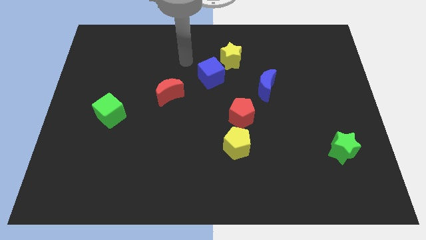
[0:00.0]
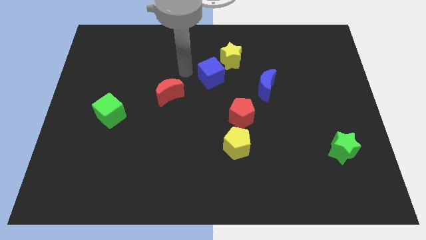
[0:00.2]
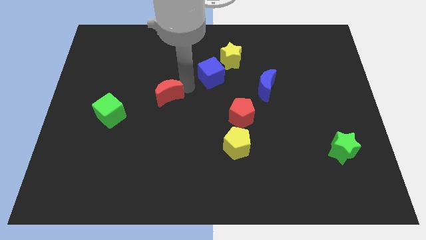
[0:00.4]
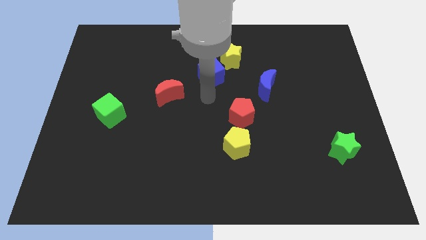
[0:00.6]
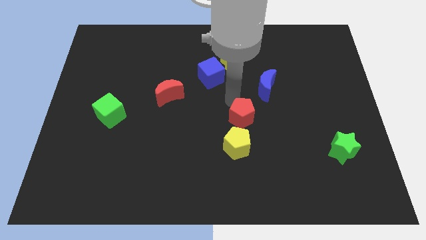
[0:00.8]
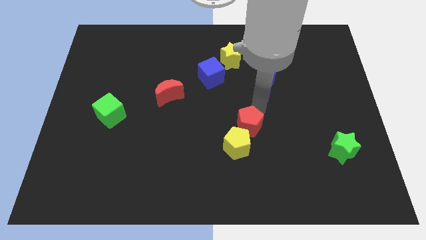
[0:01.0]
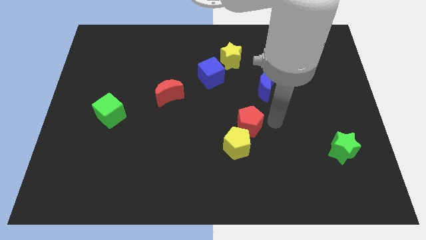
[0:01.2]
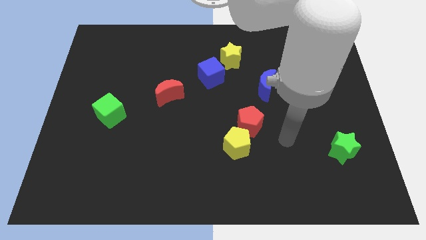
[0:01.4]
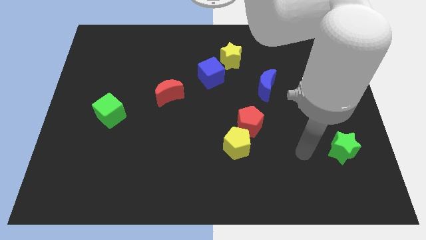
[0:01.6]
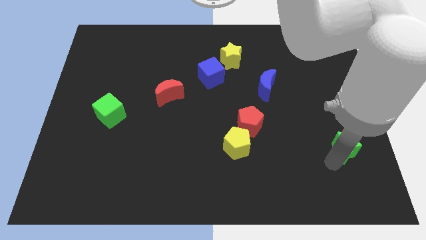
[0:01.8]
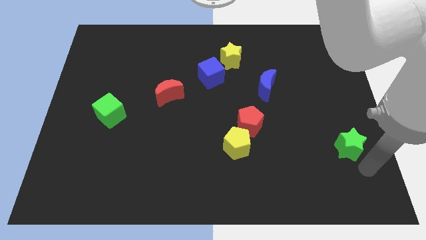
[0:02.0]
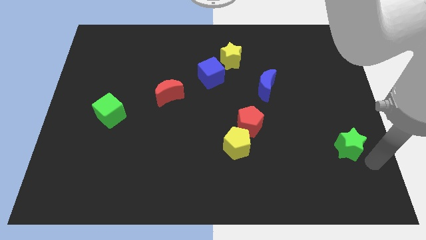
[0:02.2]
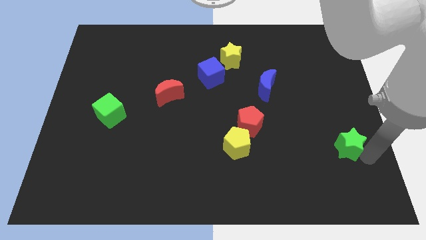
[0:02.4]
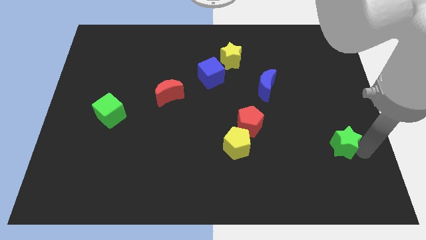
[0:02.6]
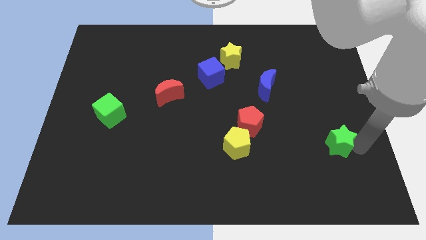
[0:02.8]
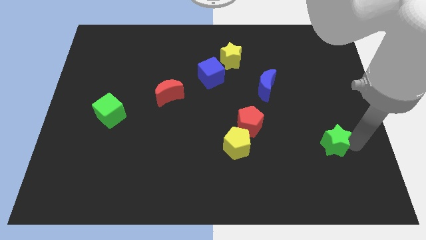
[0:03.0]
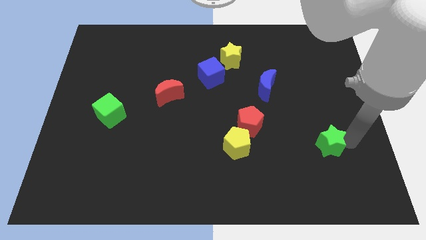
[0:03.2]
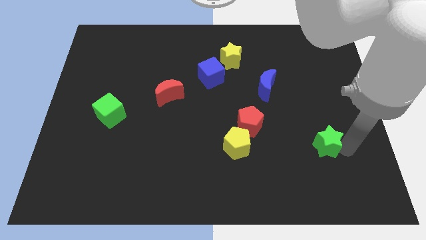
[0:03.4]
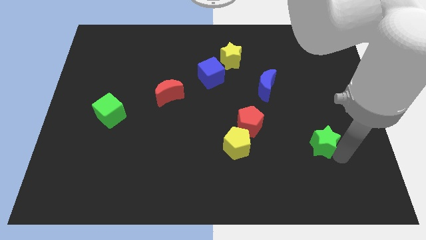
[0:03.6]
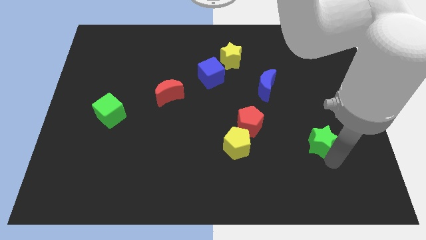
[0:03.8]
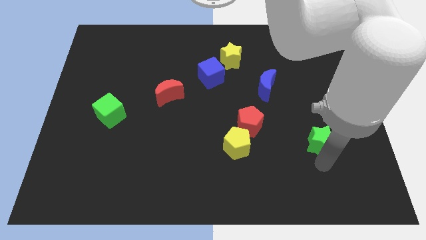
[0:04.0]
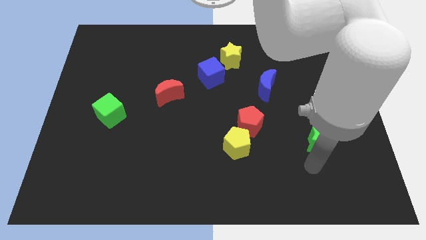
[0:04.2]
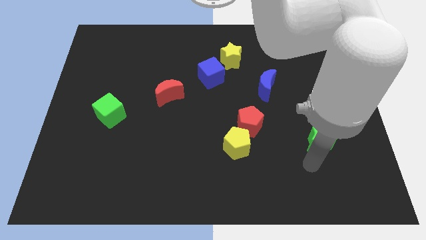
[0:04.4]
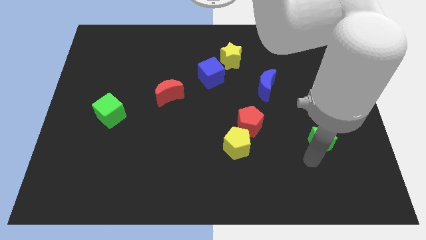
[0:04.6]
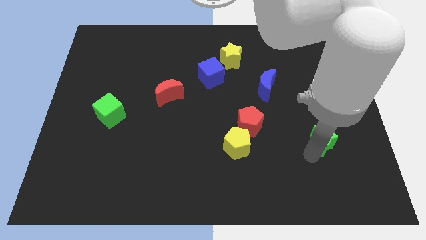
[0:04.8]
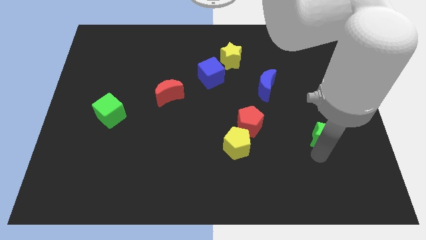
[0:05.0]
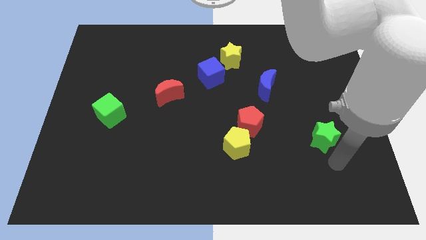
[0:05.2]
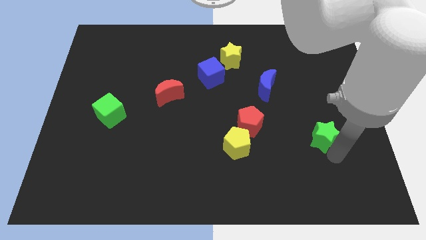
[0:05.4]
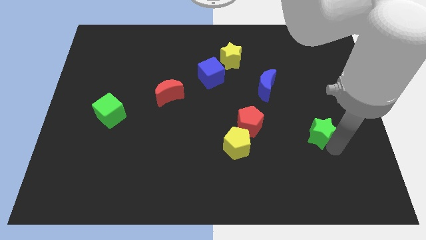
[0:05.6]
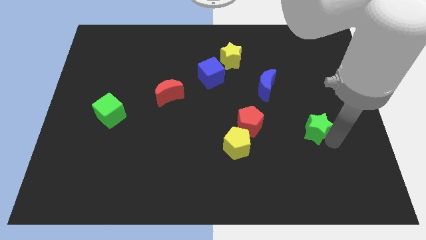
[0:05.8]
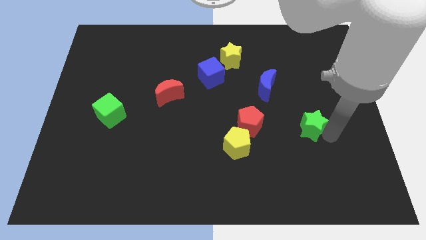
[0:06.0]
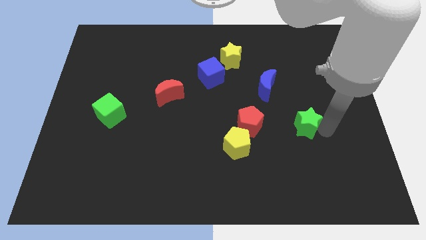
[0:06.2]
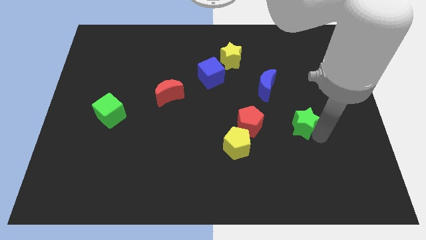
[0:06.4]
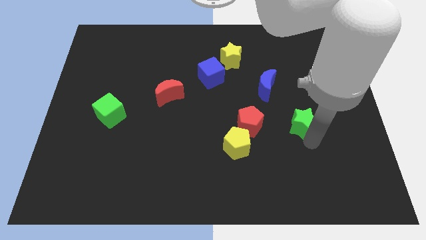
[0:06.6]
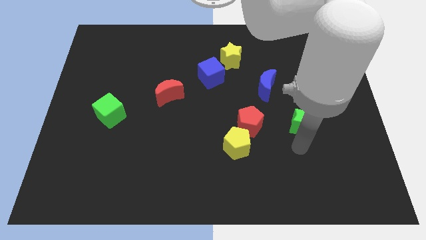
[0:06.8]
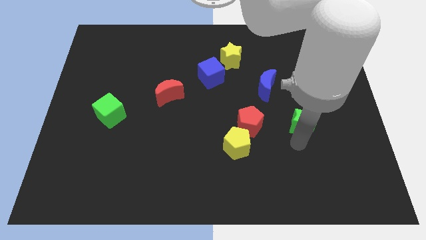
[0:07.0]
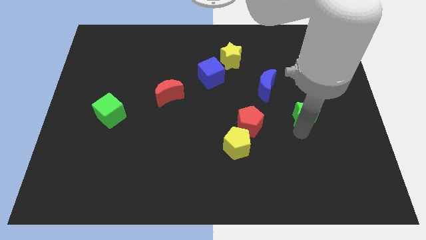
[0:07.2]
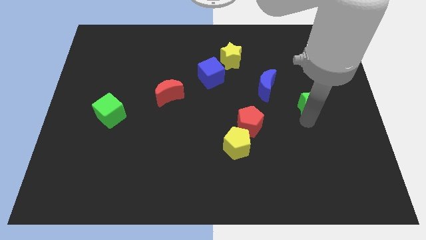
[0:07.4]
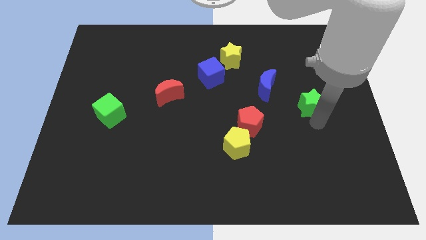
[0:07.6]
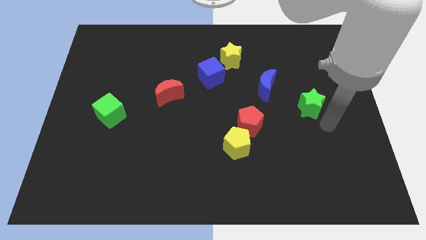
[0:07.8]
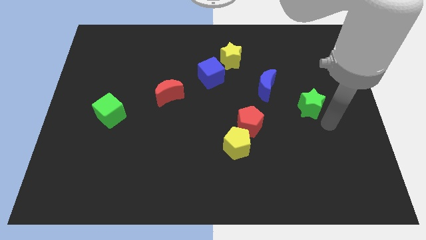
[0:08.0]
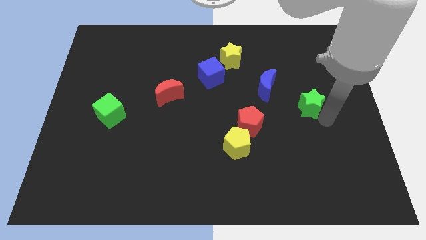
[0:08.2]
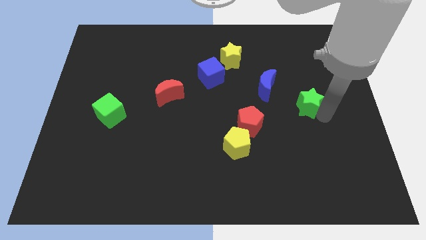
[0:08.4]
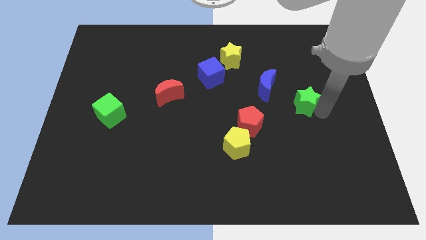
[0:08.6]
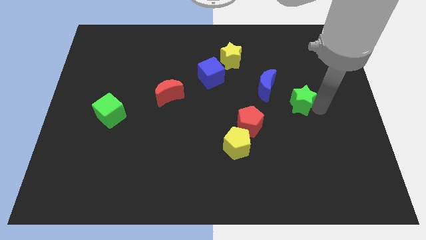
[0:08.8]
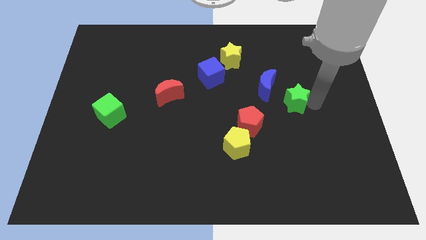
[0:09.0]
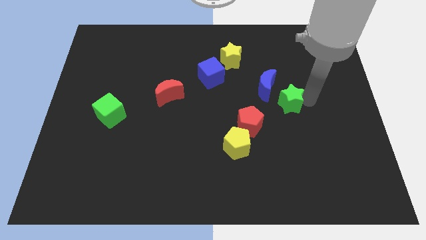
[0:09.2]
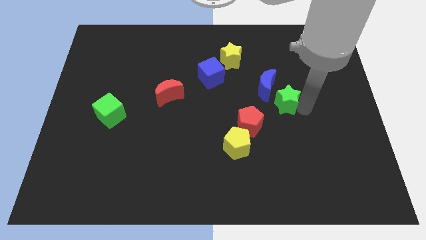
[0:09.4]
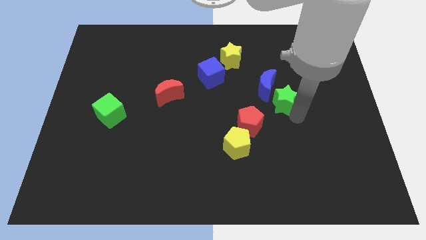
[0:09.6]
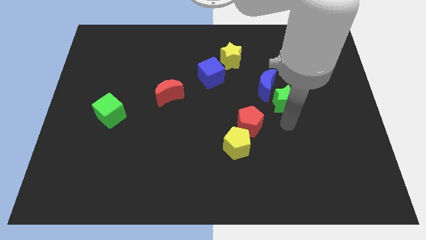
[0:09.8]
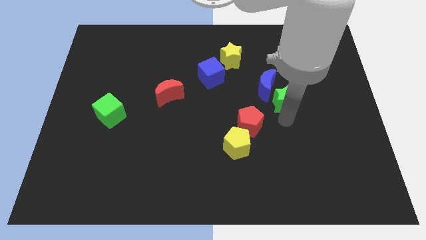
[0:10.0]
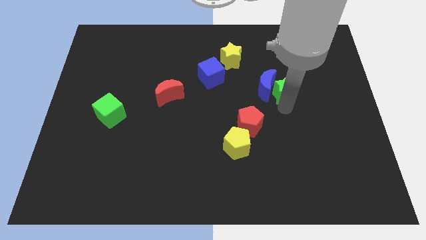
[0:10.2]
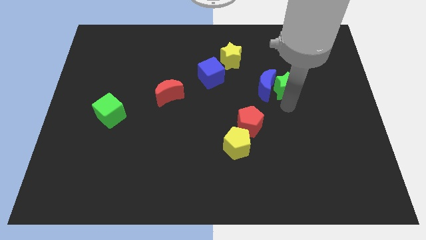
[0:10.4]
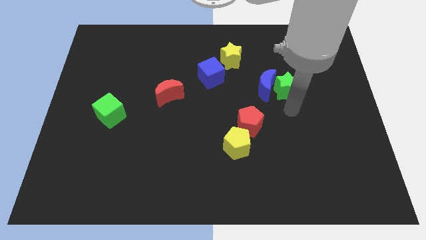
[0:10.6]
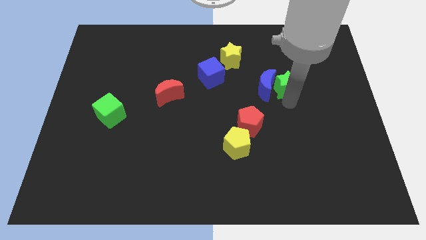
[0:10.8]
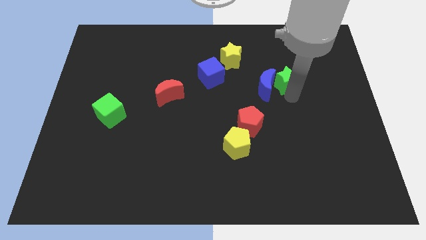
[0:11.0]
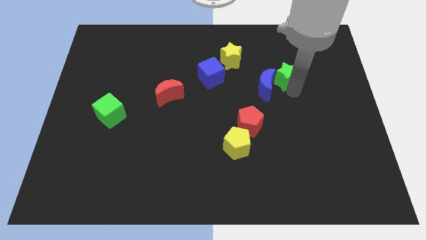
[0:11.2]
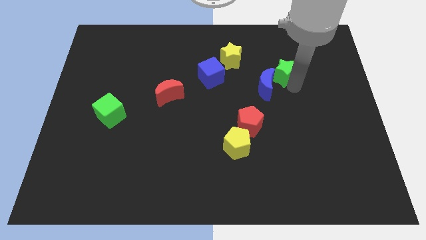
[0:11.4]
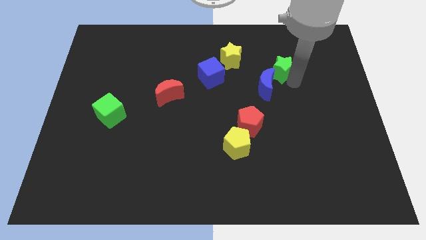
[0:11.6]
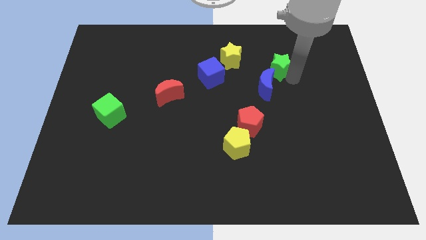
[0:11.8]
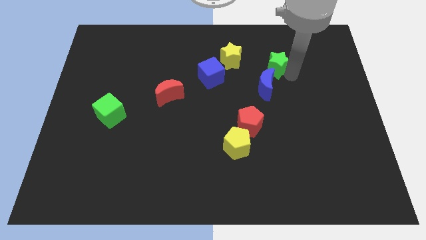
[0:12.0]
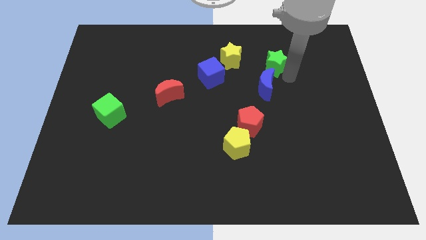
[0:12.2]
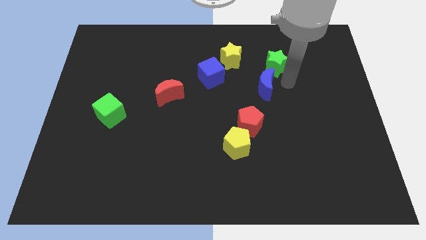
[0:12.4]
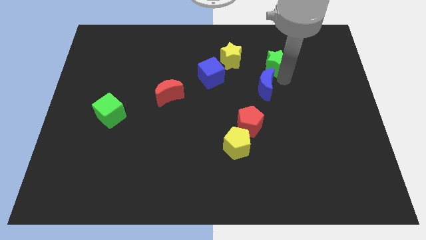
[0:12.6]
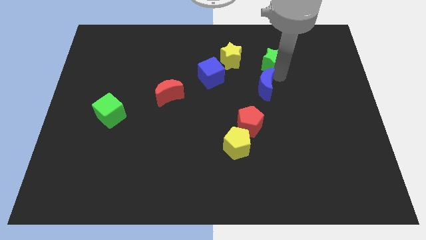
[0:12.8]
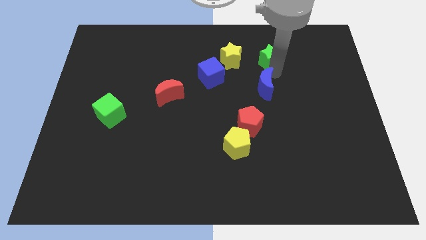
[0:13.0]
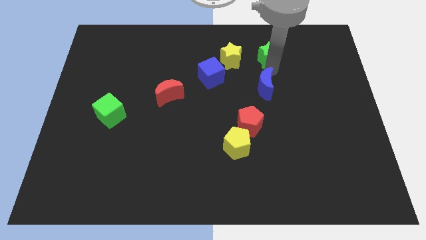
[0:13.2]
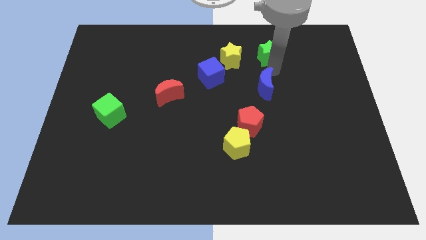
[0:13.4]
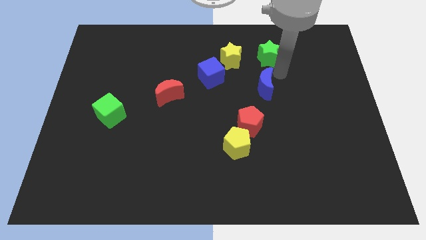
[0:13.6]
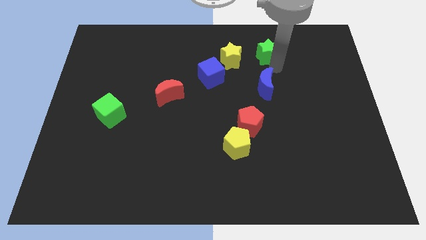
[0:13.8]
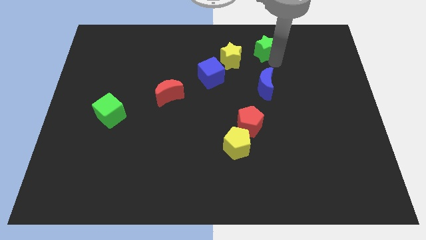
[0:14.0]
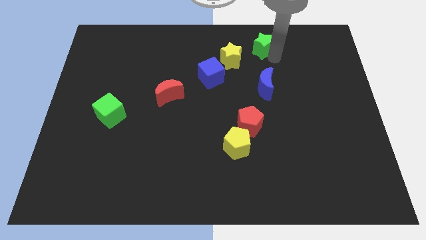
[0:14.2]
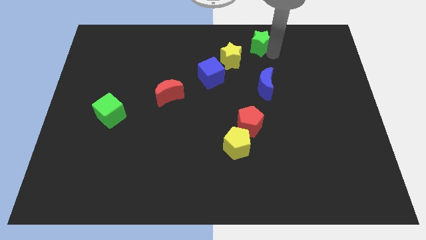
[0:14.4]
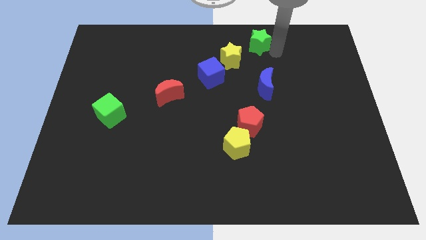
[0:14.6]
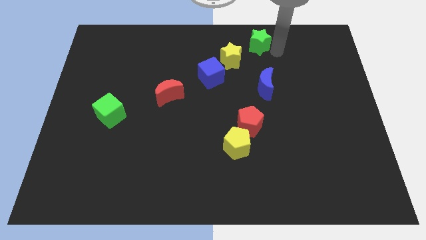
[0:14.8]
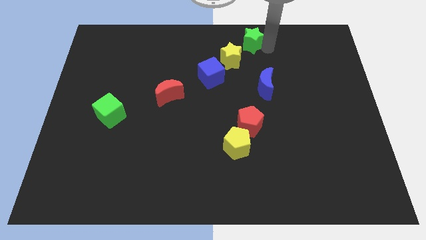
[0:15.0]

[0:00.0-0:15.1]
push the green star to the towards your base
